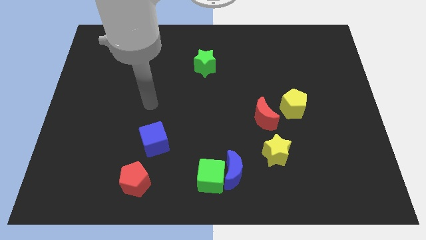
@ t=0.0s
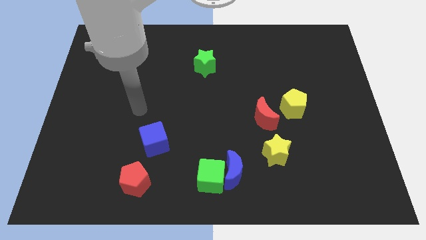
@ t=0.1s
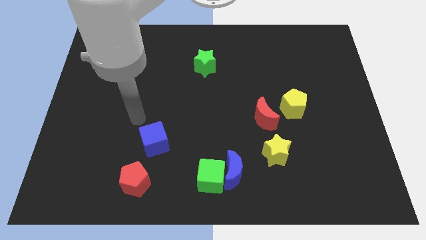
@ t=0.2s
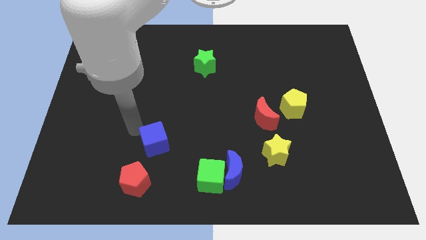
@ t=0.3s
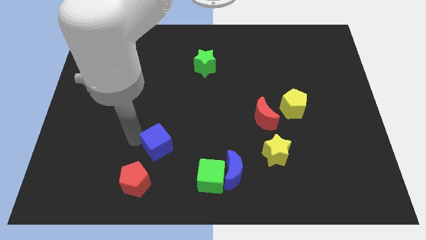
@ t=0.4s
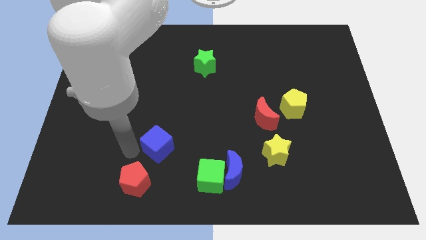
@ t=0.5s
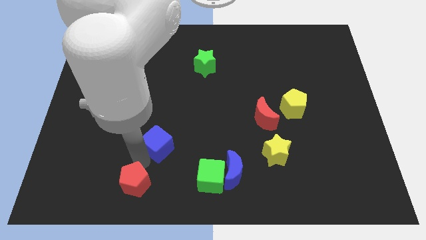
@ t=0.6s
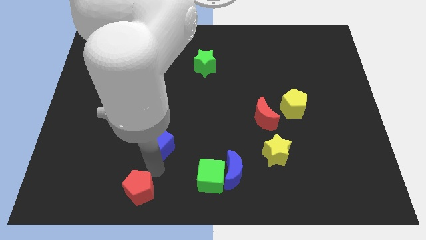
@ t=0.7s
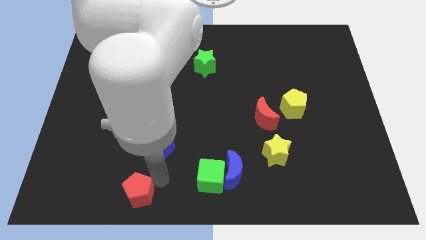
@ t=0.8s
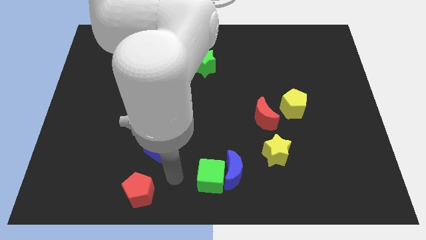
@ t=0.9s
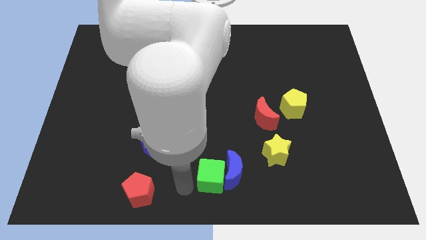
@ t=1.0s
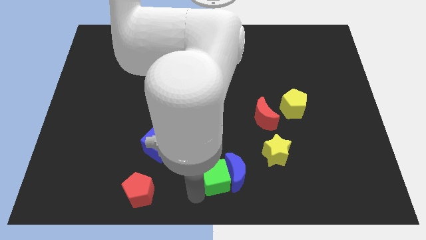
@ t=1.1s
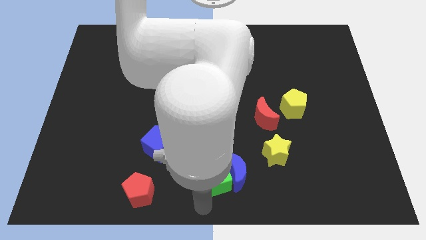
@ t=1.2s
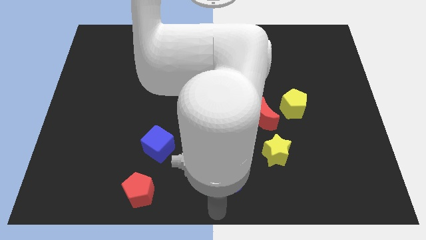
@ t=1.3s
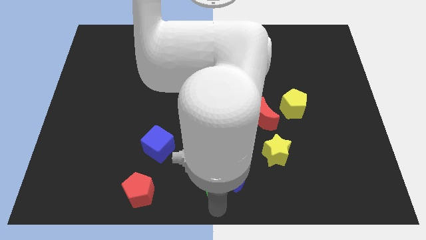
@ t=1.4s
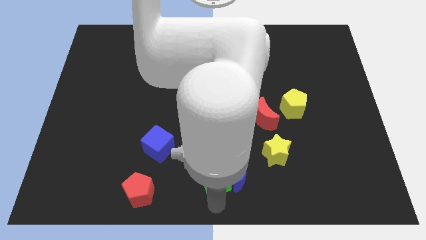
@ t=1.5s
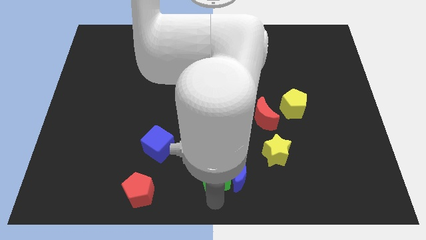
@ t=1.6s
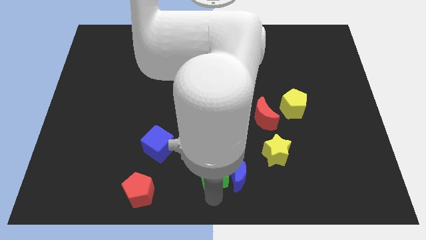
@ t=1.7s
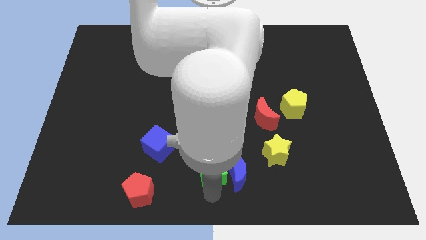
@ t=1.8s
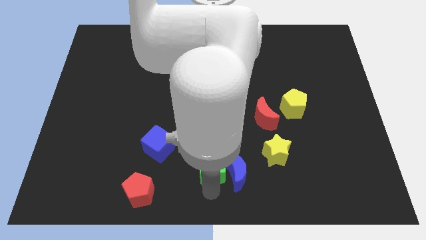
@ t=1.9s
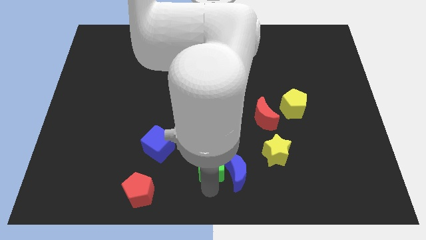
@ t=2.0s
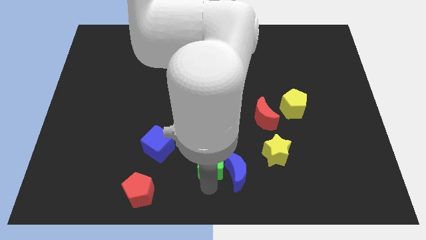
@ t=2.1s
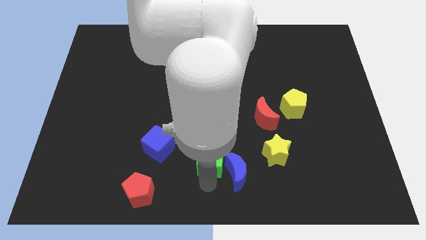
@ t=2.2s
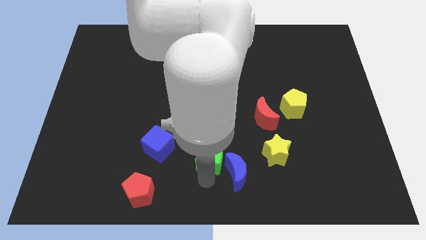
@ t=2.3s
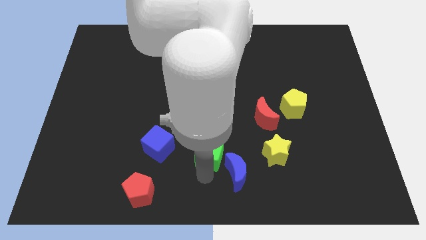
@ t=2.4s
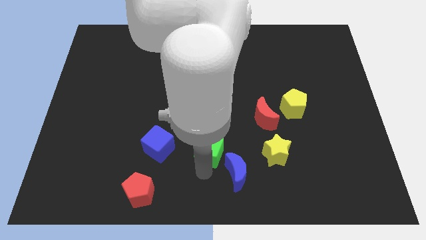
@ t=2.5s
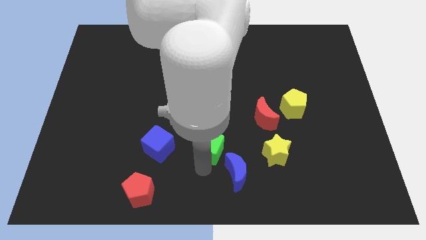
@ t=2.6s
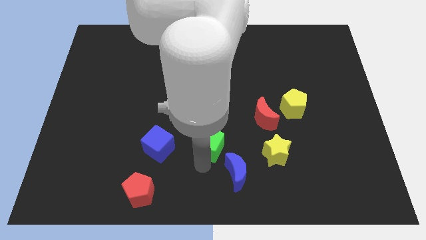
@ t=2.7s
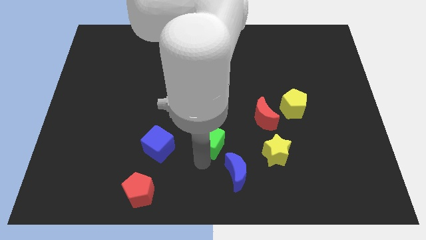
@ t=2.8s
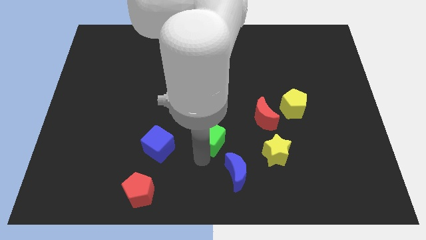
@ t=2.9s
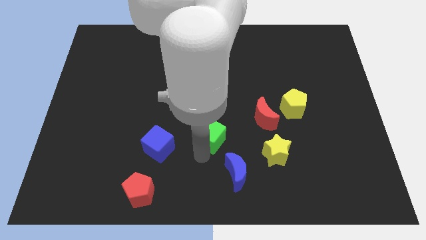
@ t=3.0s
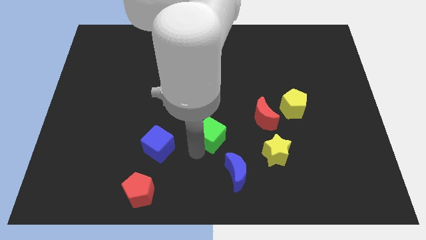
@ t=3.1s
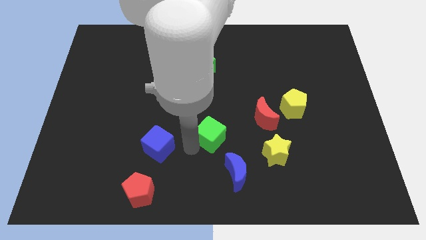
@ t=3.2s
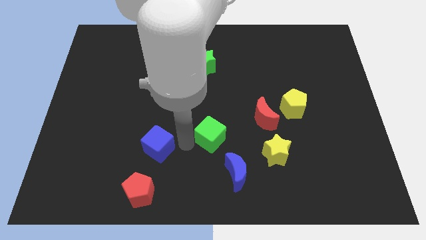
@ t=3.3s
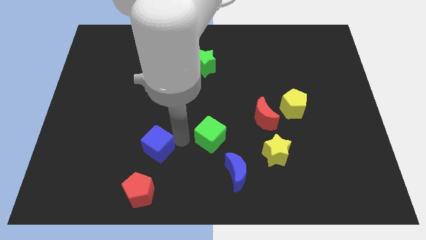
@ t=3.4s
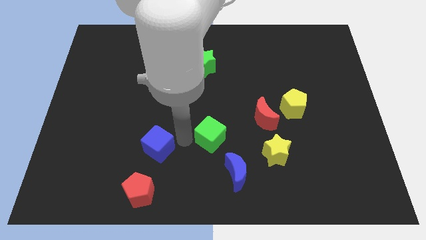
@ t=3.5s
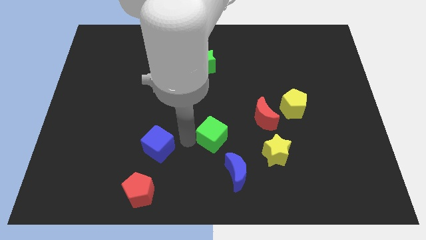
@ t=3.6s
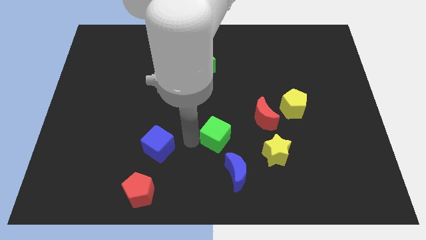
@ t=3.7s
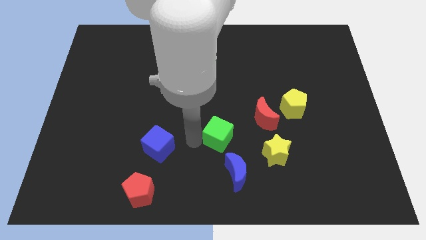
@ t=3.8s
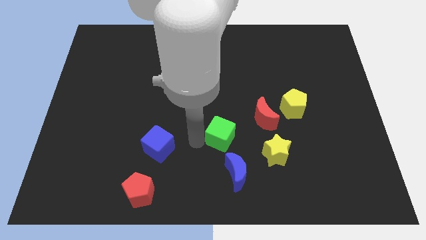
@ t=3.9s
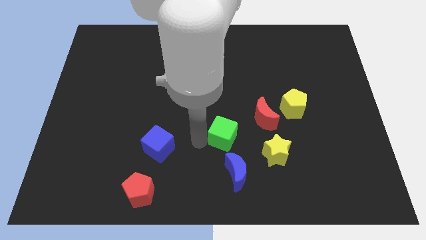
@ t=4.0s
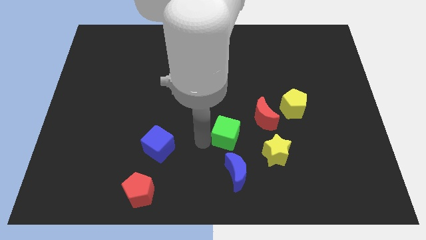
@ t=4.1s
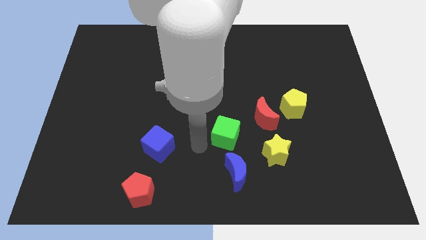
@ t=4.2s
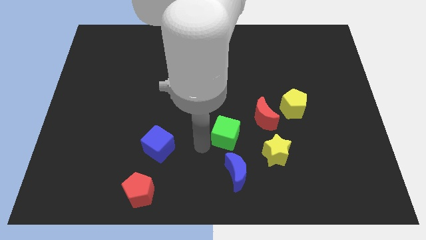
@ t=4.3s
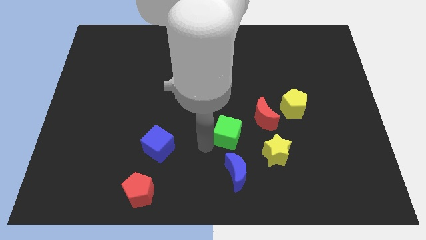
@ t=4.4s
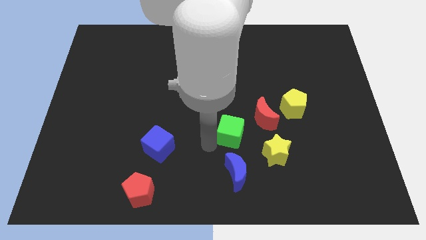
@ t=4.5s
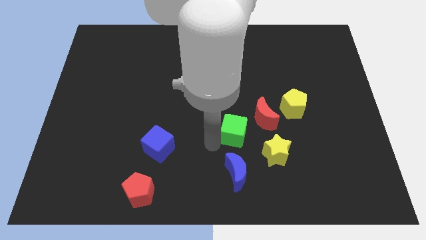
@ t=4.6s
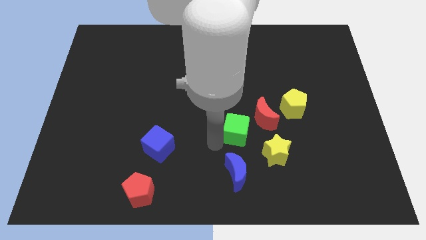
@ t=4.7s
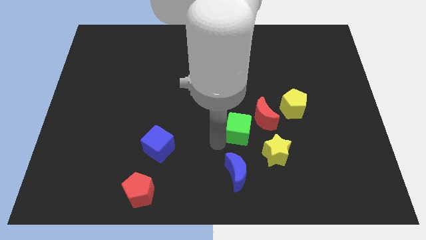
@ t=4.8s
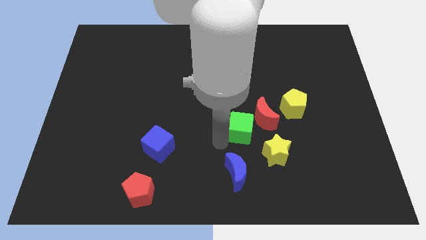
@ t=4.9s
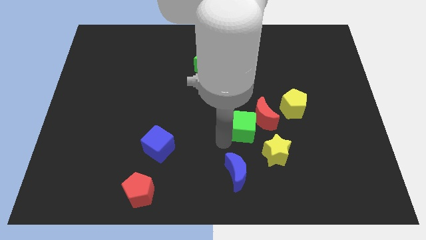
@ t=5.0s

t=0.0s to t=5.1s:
put the green cube to the red moon

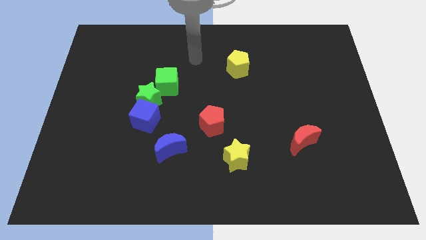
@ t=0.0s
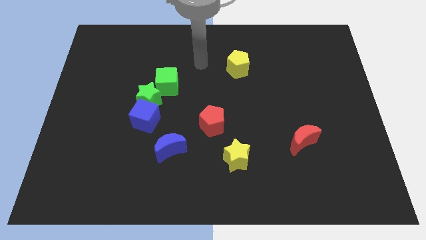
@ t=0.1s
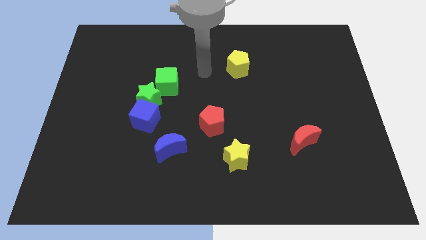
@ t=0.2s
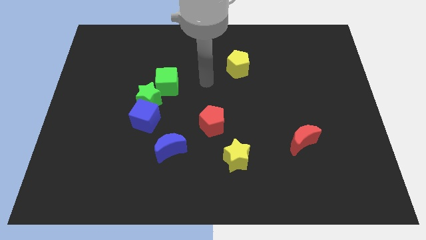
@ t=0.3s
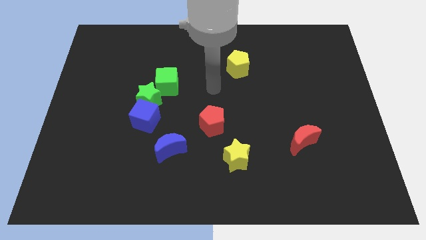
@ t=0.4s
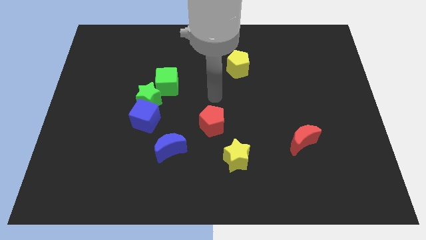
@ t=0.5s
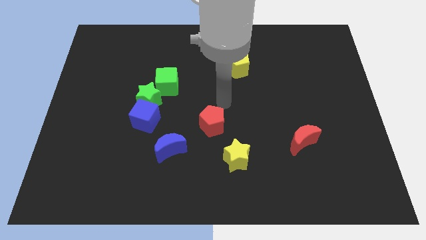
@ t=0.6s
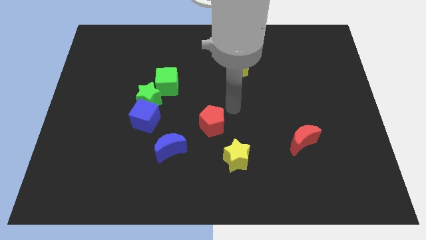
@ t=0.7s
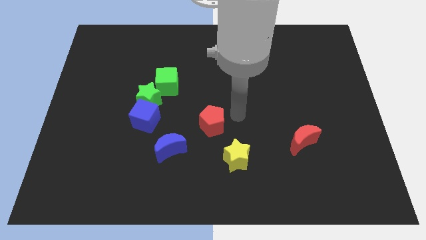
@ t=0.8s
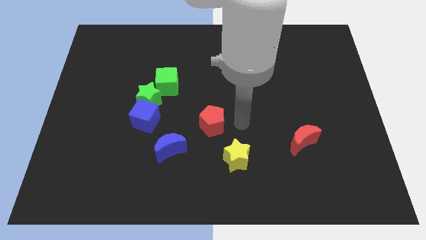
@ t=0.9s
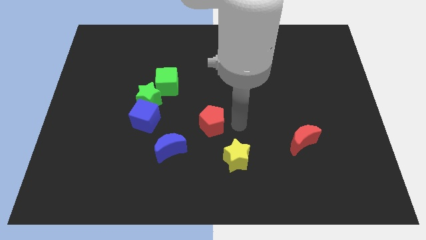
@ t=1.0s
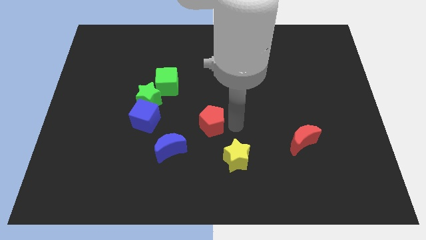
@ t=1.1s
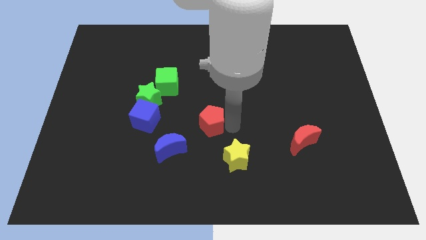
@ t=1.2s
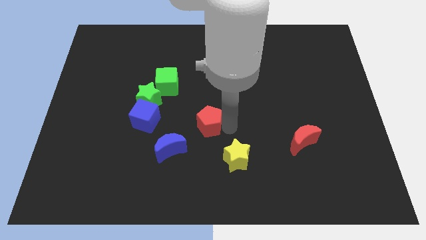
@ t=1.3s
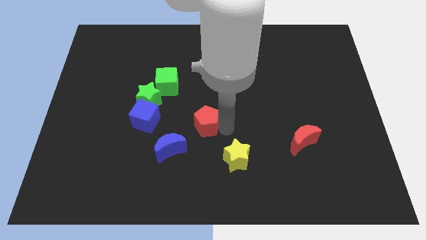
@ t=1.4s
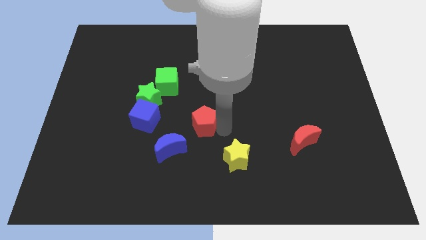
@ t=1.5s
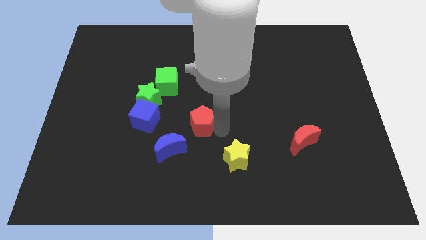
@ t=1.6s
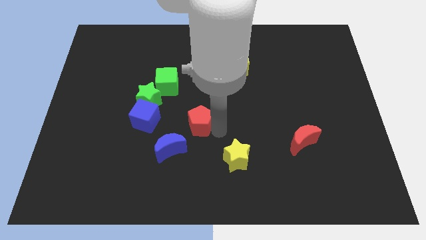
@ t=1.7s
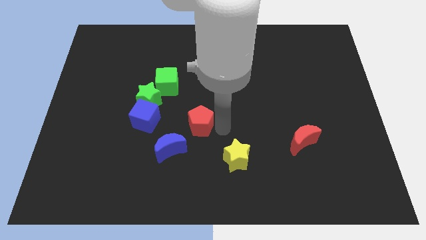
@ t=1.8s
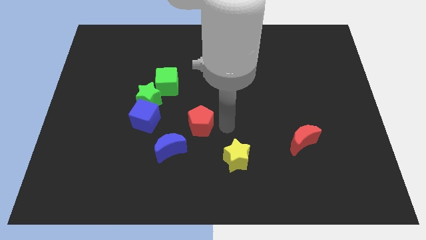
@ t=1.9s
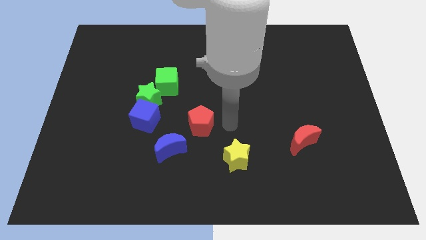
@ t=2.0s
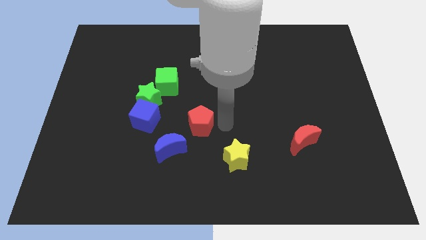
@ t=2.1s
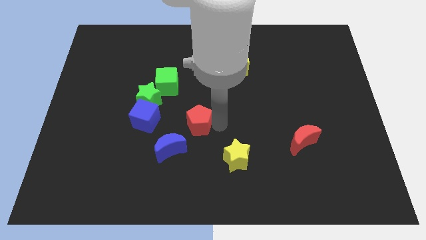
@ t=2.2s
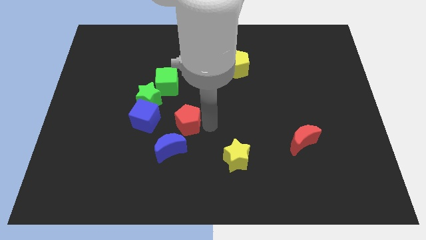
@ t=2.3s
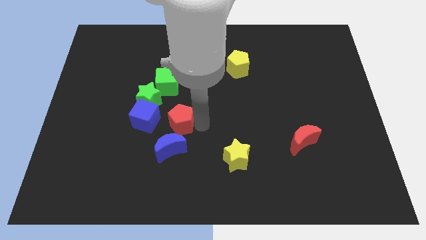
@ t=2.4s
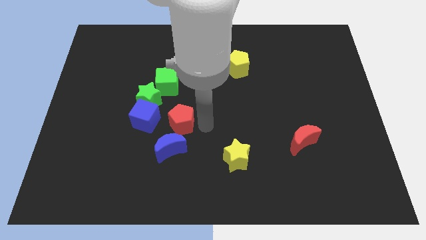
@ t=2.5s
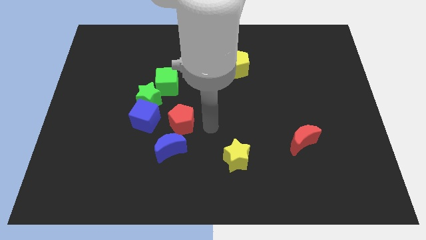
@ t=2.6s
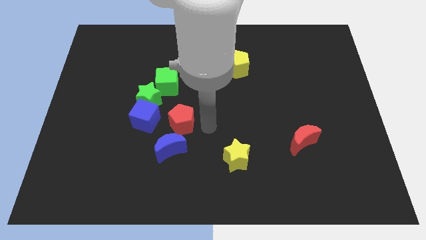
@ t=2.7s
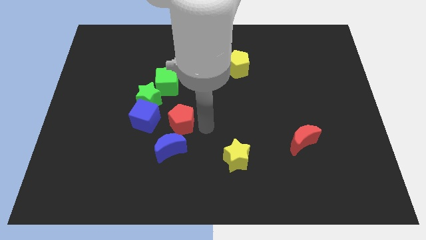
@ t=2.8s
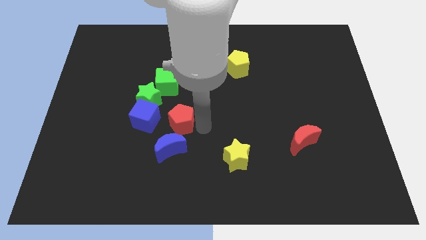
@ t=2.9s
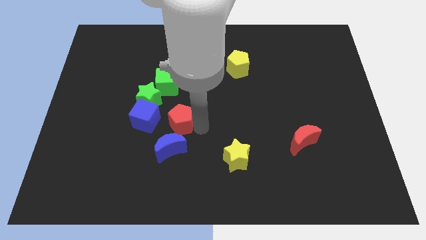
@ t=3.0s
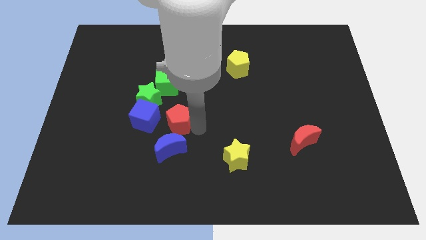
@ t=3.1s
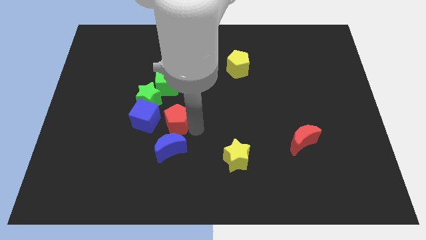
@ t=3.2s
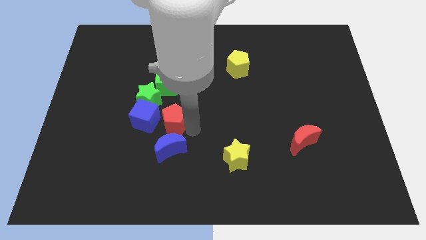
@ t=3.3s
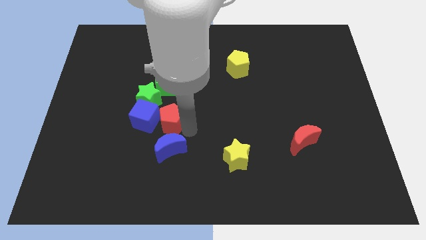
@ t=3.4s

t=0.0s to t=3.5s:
slide the red pentagon close to the blue cube
